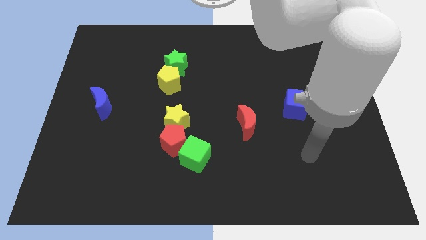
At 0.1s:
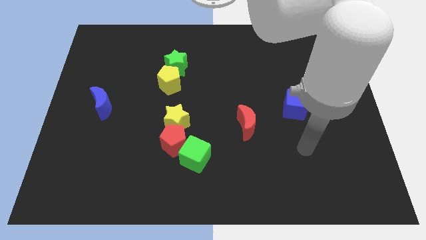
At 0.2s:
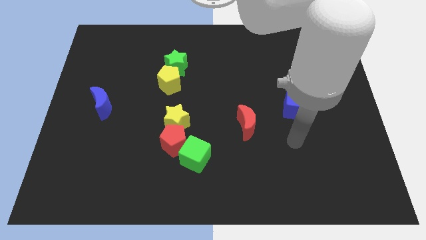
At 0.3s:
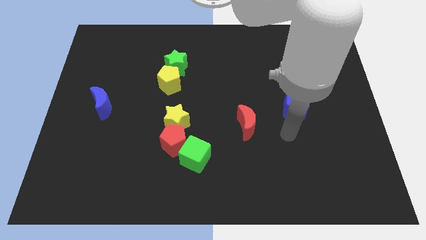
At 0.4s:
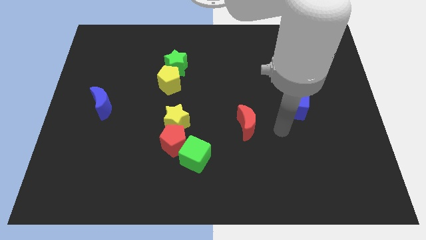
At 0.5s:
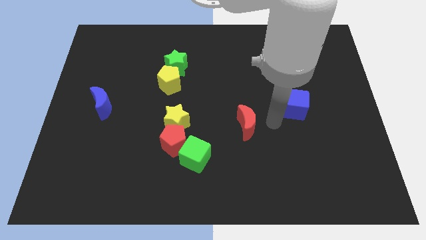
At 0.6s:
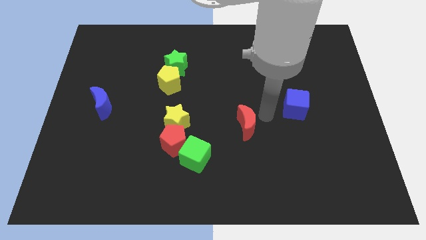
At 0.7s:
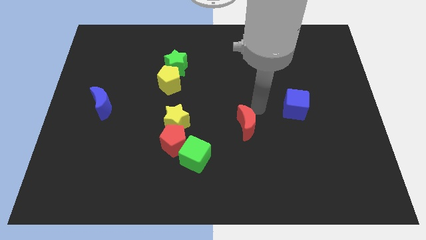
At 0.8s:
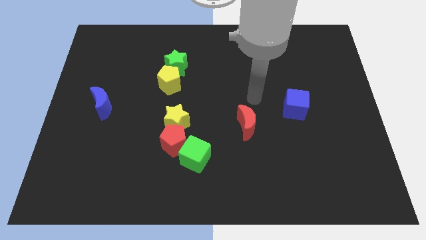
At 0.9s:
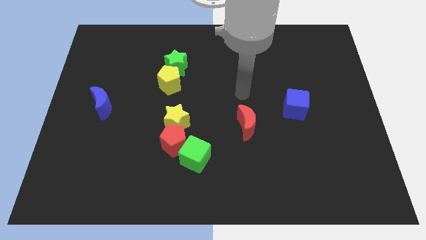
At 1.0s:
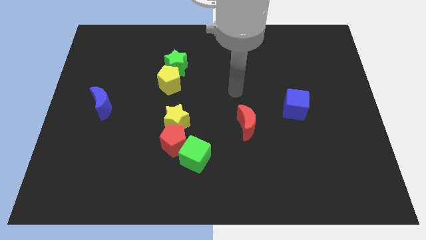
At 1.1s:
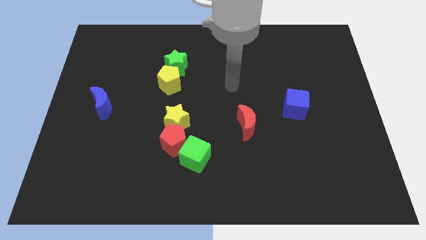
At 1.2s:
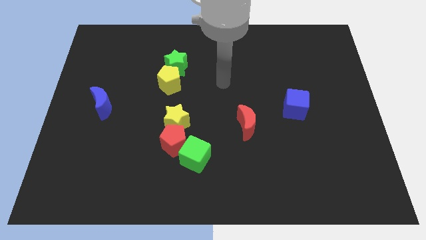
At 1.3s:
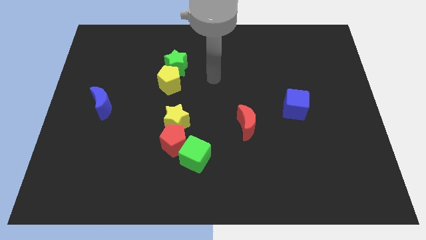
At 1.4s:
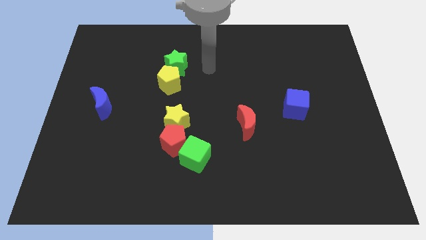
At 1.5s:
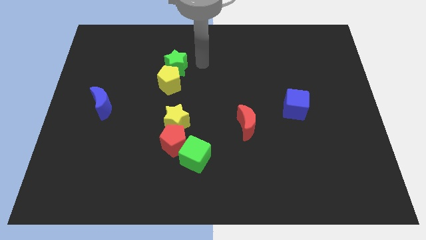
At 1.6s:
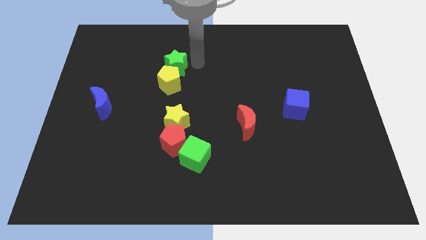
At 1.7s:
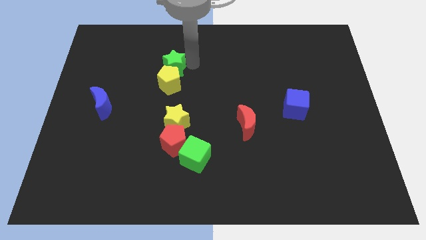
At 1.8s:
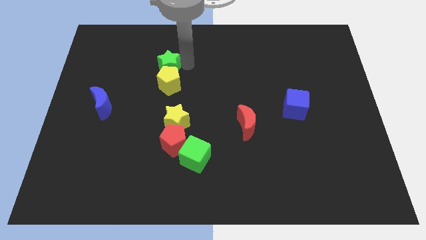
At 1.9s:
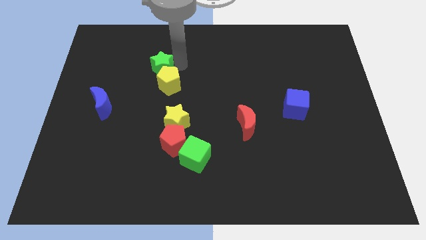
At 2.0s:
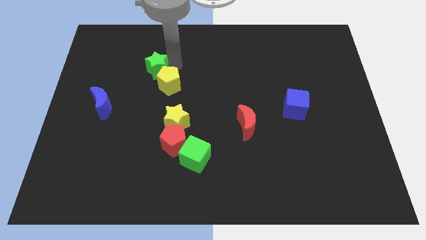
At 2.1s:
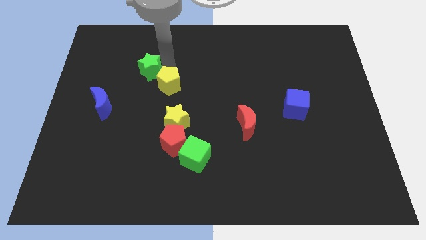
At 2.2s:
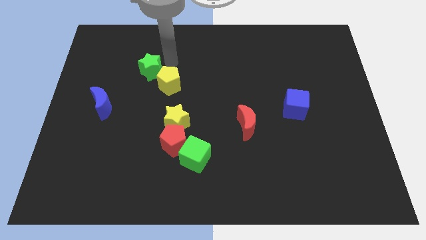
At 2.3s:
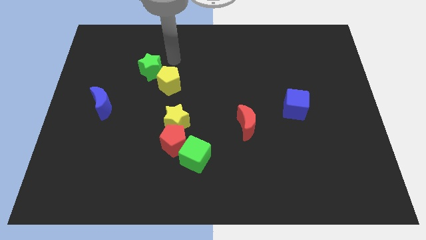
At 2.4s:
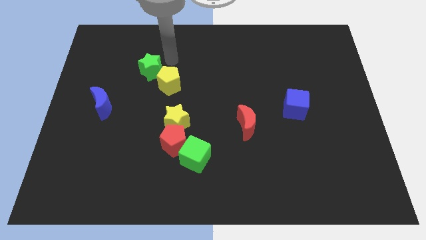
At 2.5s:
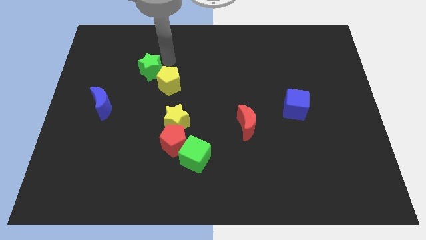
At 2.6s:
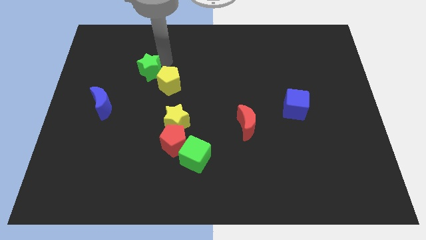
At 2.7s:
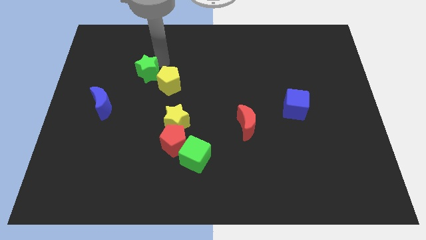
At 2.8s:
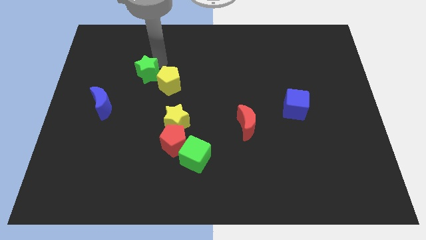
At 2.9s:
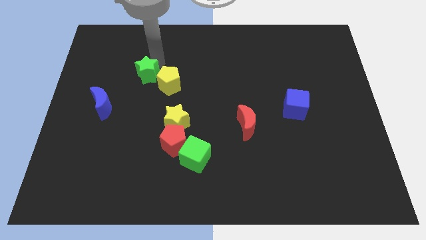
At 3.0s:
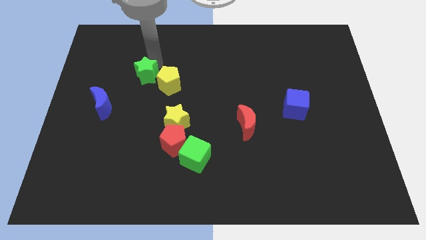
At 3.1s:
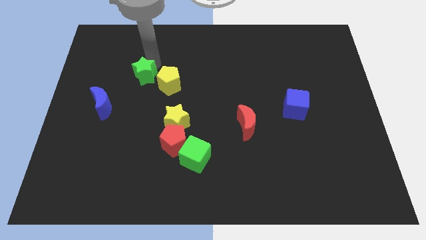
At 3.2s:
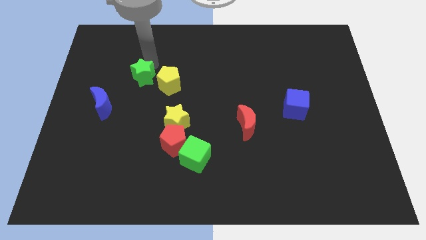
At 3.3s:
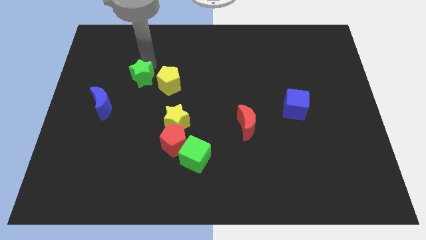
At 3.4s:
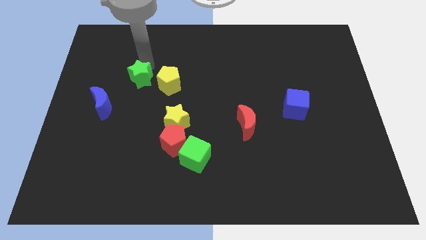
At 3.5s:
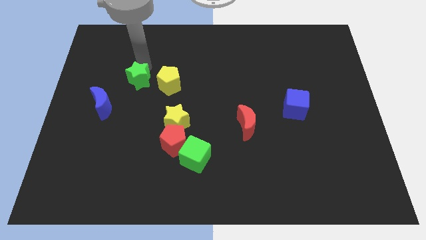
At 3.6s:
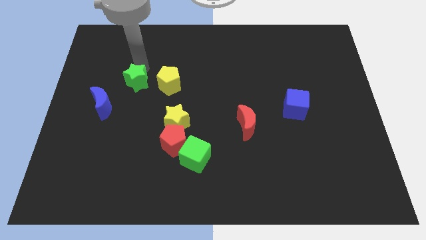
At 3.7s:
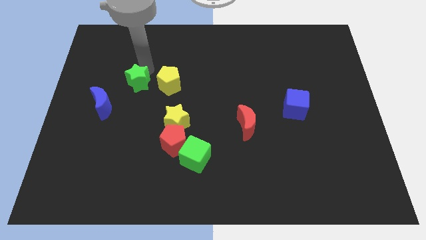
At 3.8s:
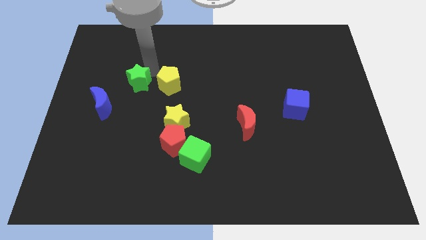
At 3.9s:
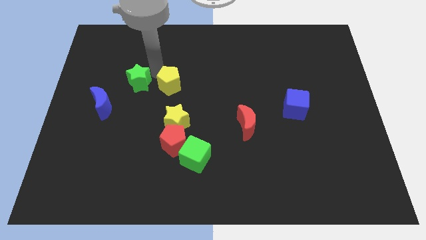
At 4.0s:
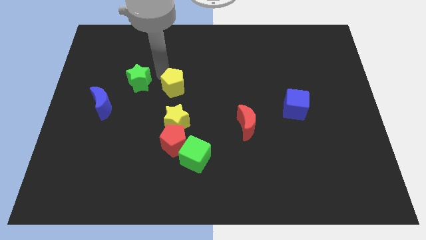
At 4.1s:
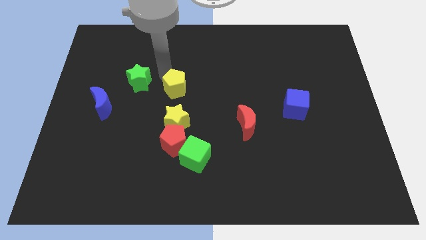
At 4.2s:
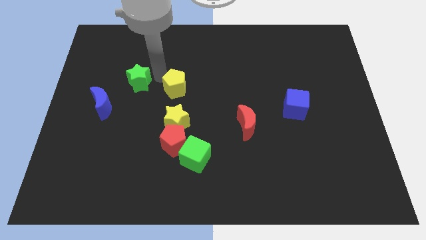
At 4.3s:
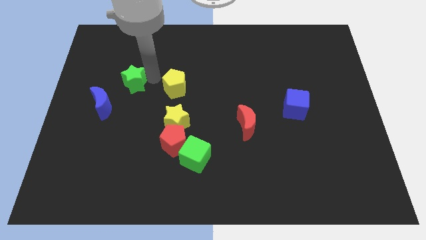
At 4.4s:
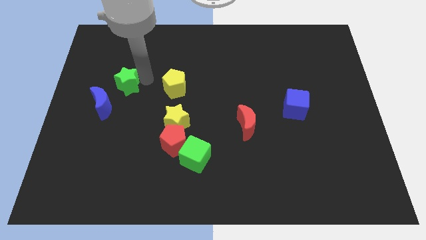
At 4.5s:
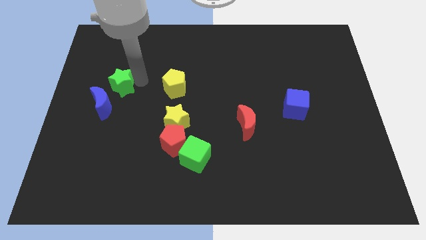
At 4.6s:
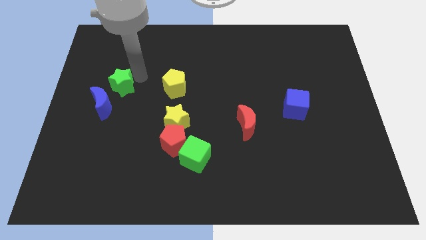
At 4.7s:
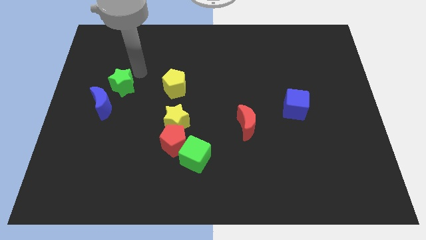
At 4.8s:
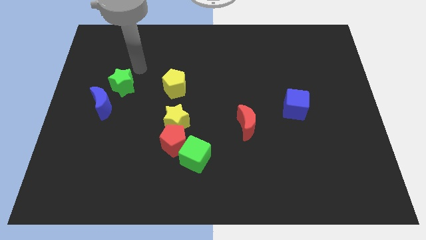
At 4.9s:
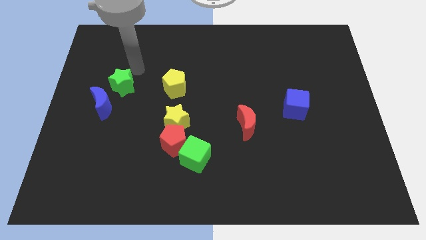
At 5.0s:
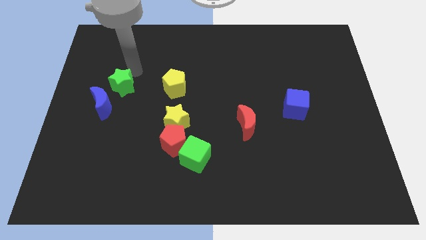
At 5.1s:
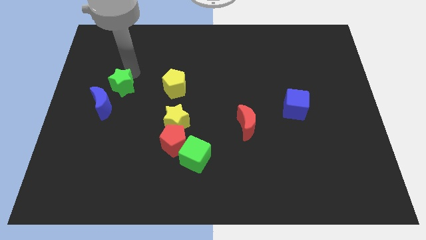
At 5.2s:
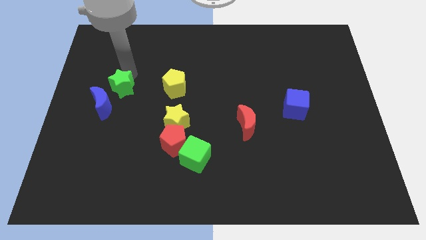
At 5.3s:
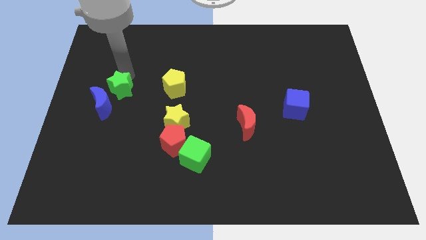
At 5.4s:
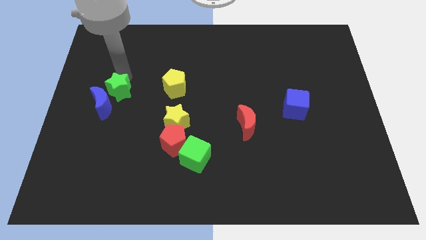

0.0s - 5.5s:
put the green star next to the blue moon

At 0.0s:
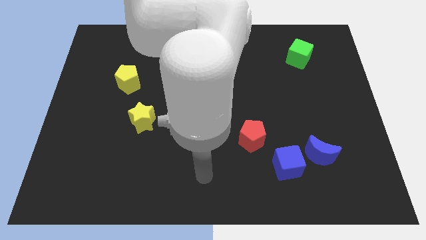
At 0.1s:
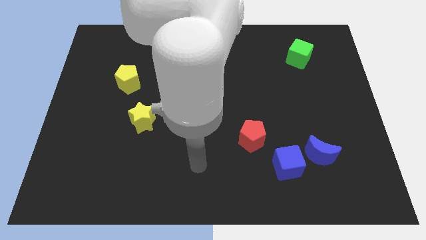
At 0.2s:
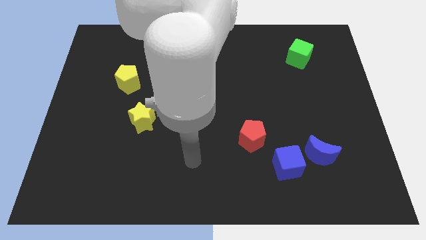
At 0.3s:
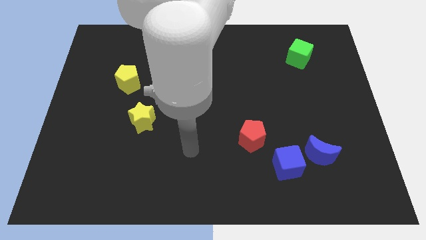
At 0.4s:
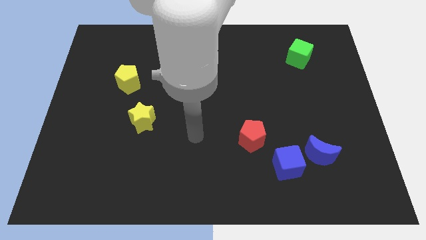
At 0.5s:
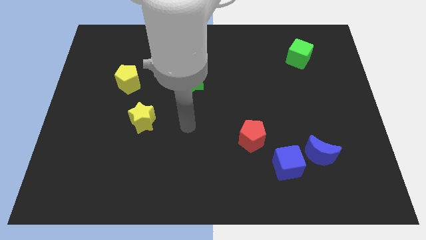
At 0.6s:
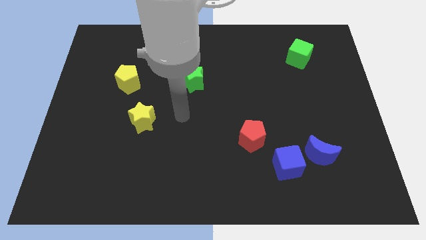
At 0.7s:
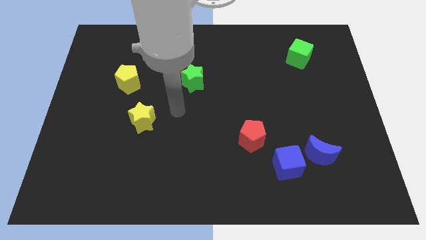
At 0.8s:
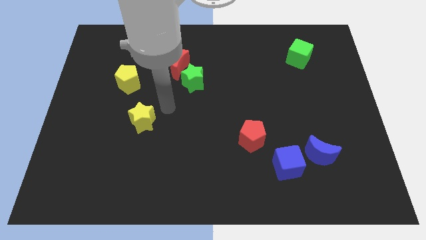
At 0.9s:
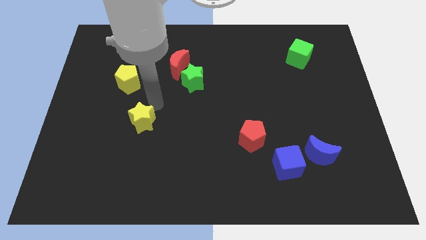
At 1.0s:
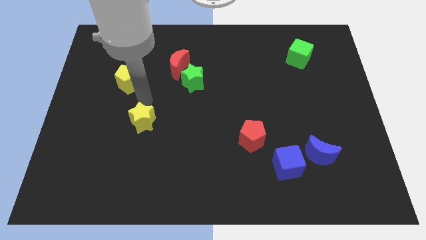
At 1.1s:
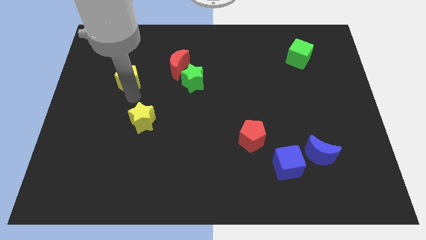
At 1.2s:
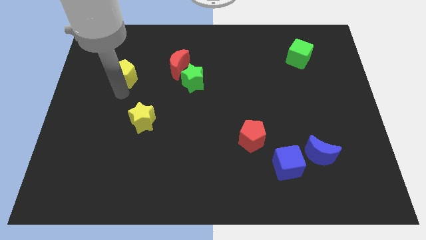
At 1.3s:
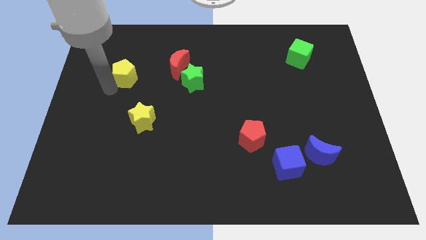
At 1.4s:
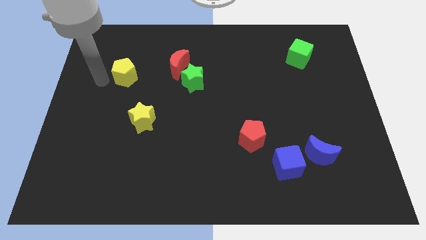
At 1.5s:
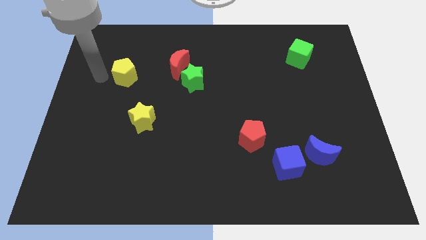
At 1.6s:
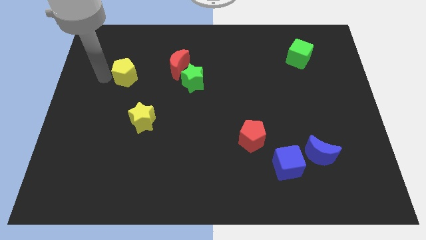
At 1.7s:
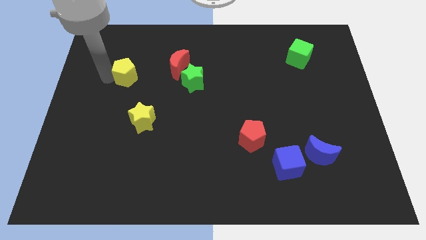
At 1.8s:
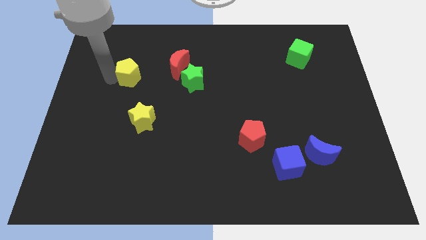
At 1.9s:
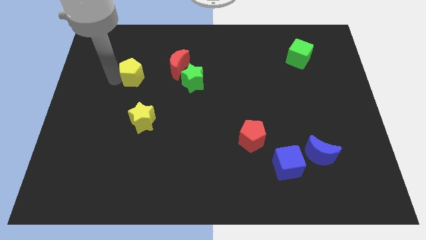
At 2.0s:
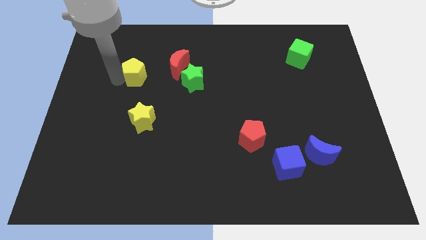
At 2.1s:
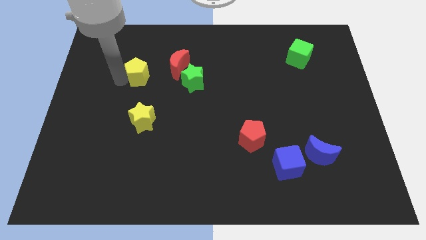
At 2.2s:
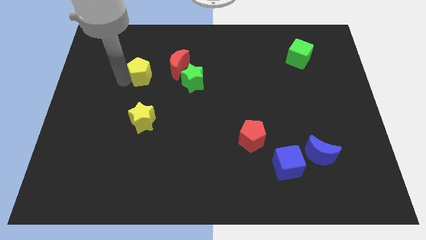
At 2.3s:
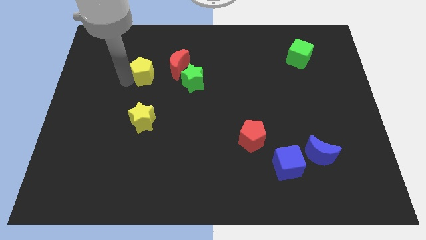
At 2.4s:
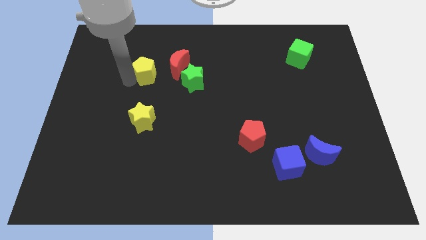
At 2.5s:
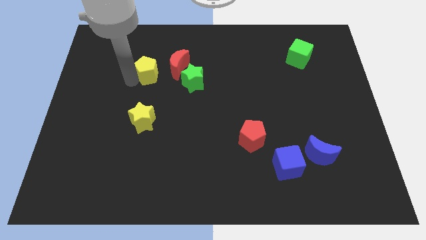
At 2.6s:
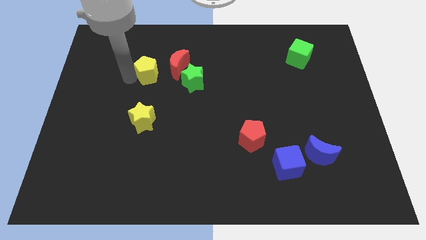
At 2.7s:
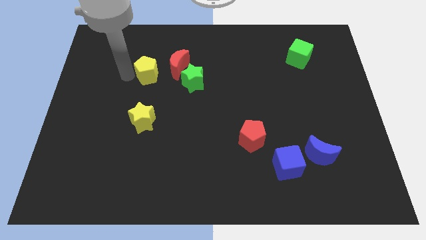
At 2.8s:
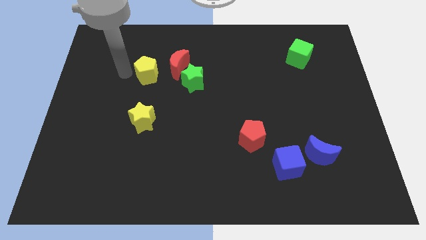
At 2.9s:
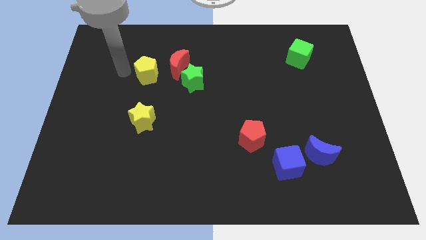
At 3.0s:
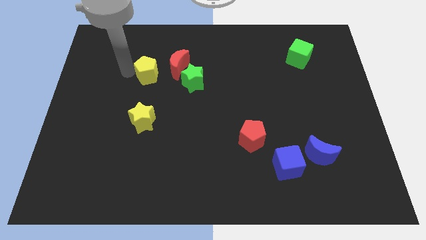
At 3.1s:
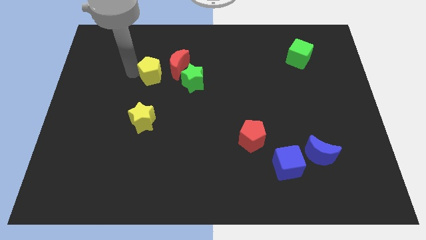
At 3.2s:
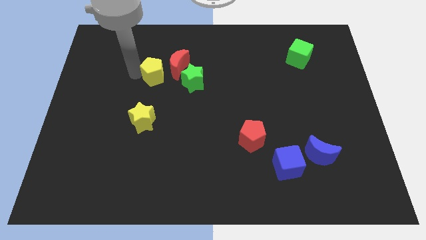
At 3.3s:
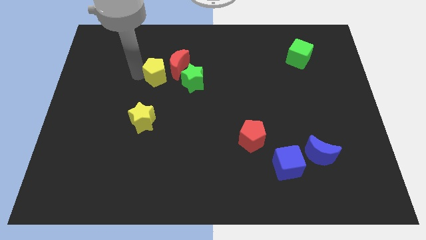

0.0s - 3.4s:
push the yellow pentagon close to the red moon
